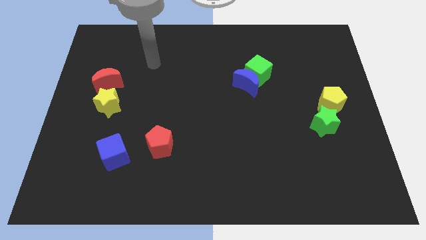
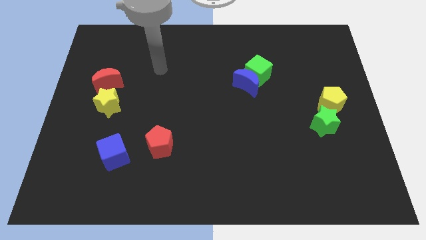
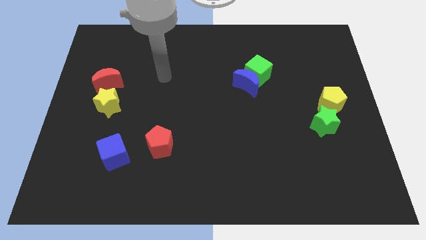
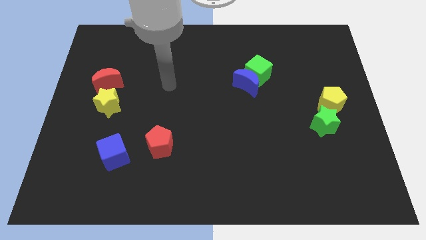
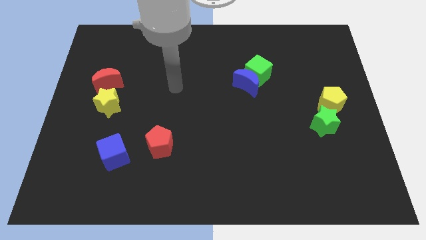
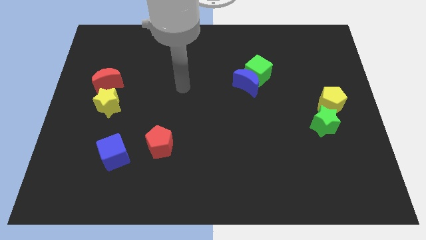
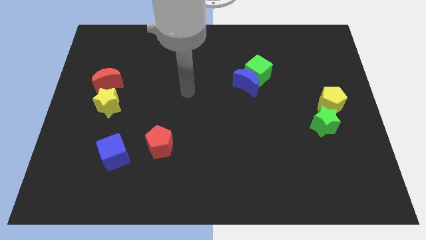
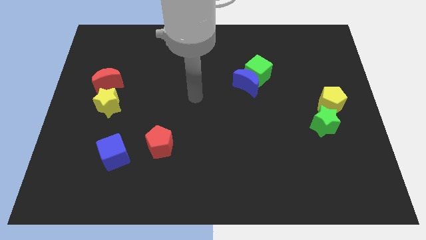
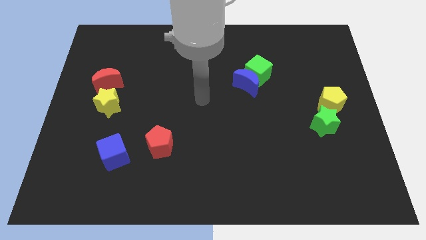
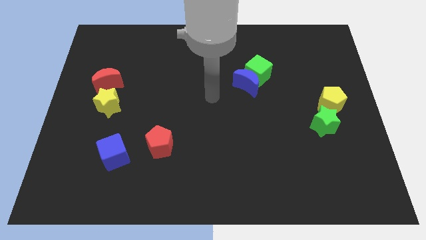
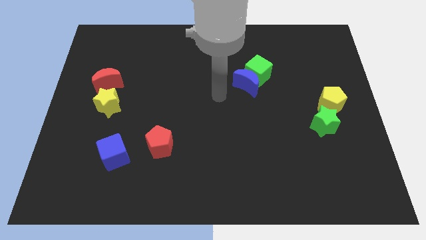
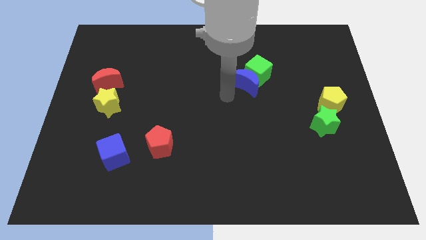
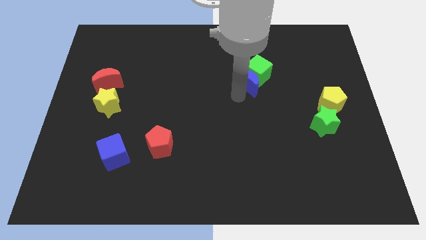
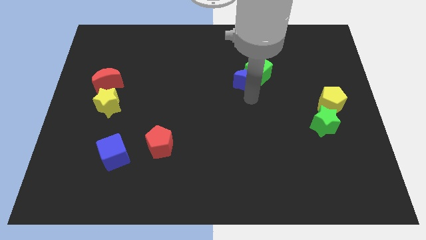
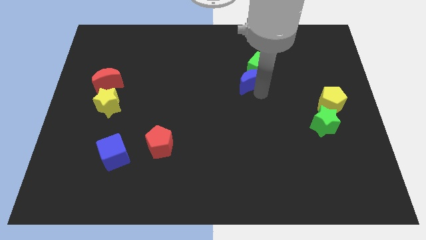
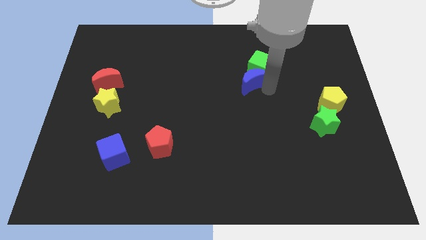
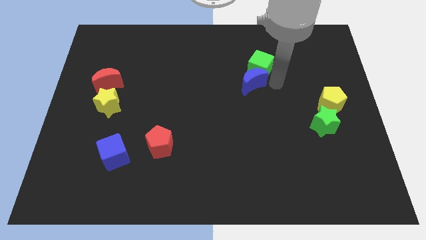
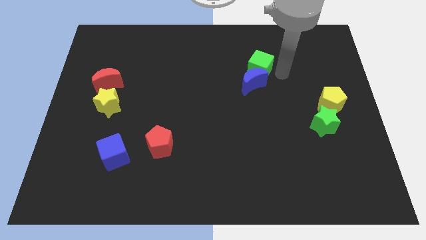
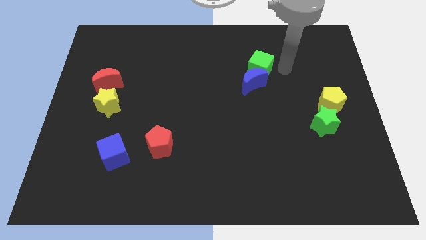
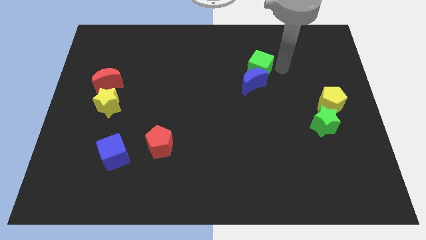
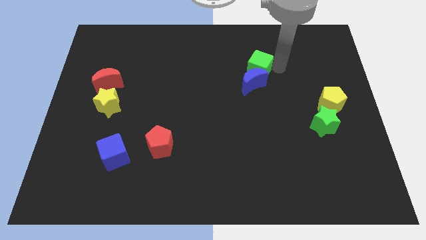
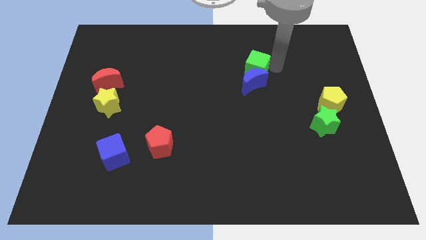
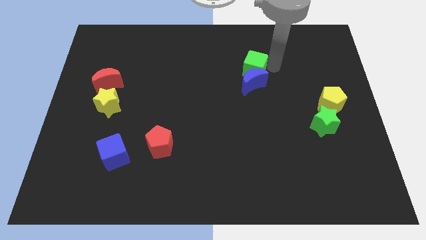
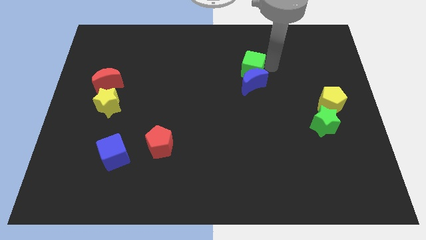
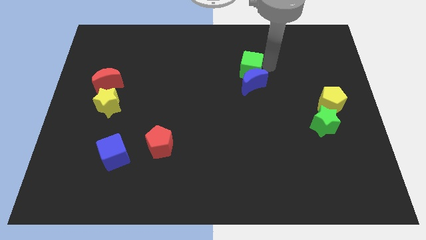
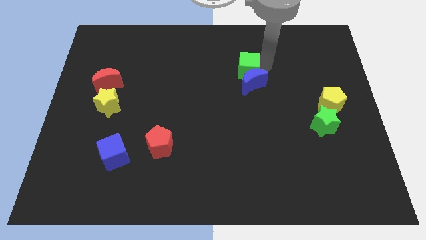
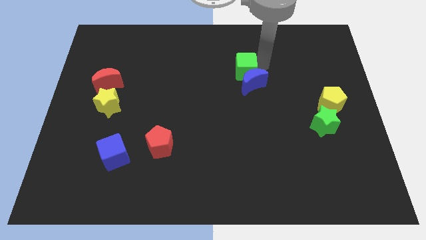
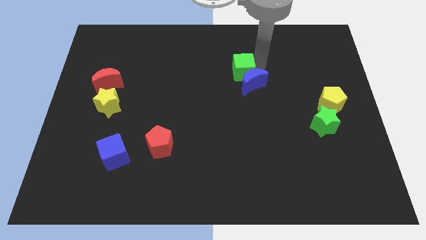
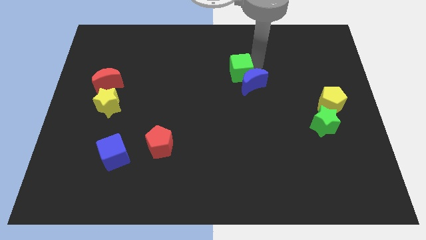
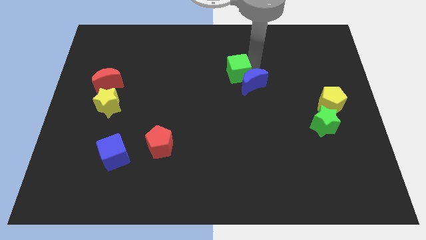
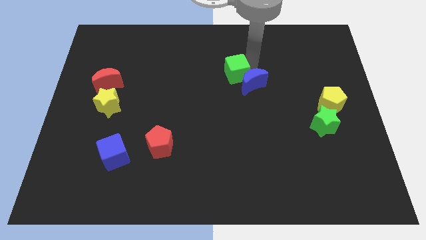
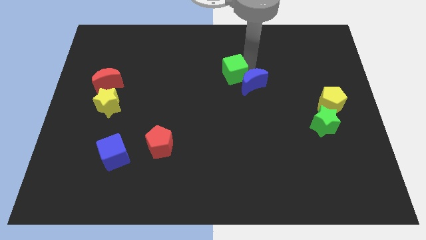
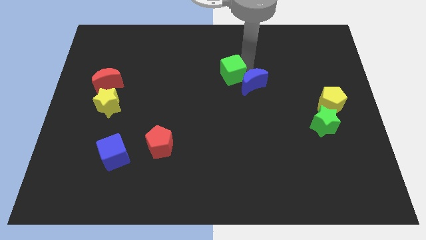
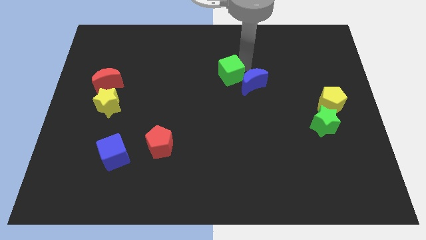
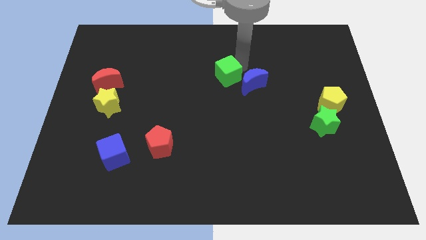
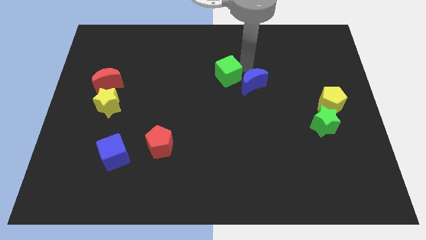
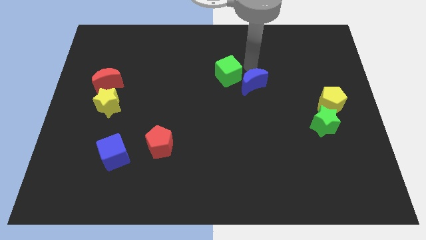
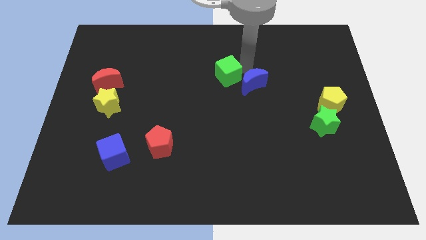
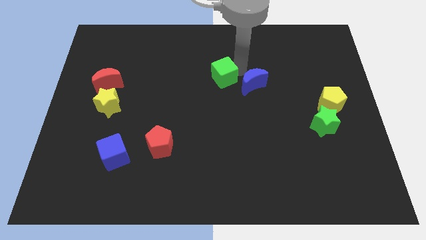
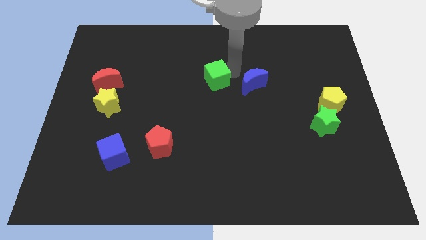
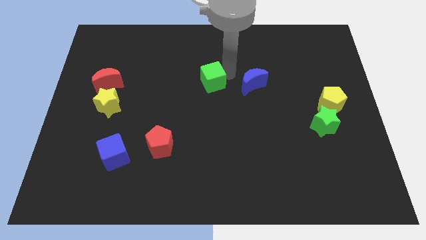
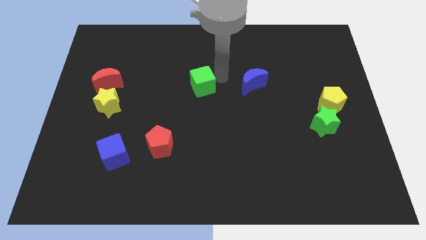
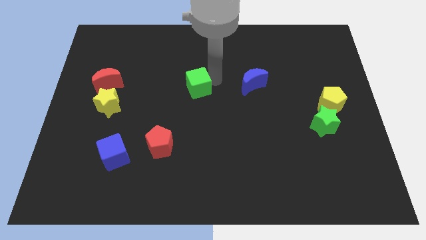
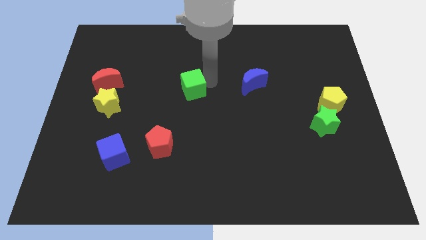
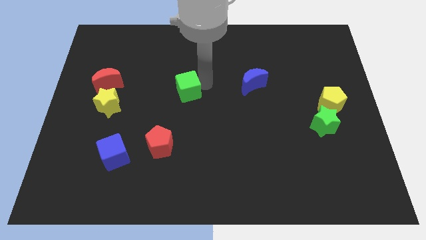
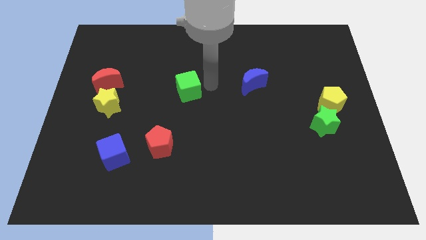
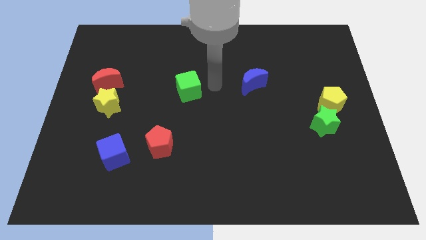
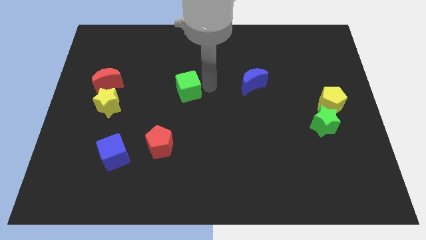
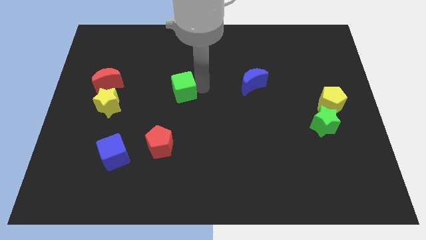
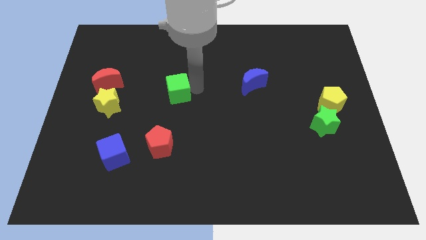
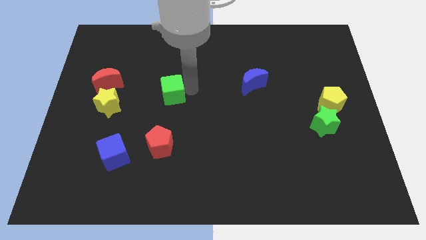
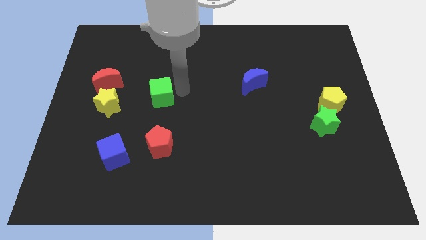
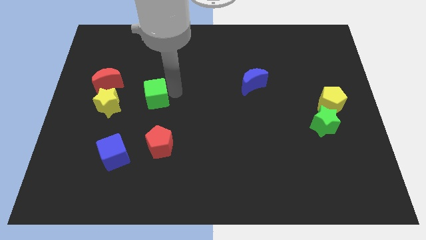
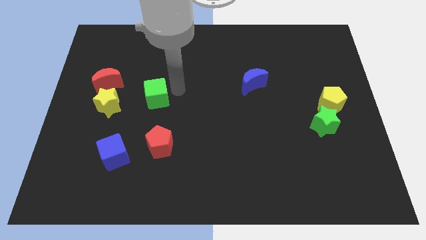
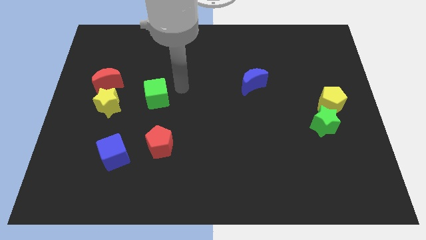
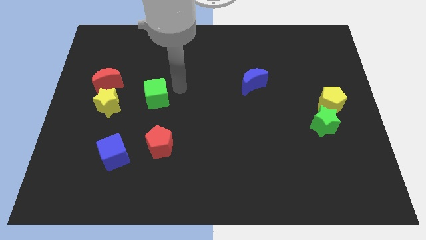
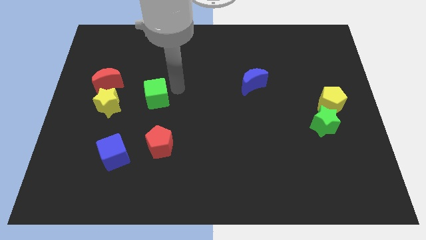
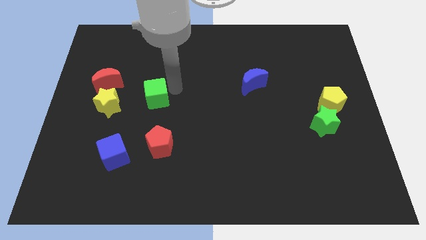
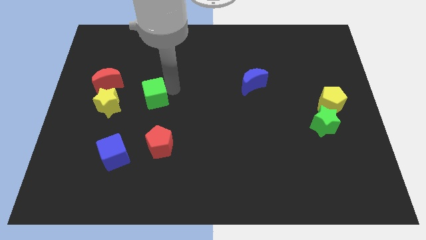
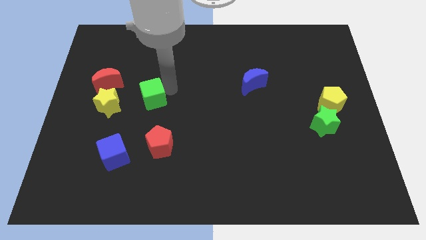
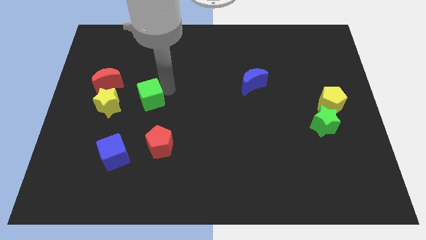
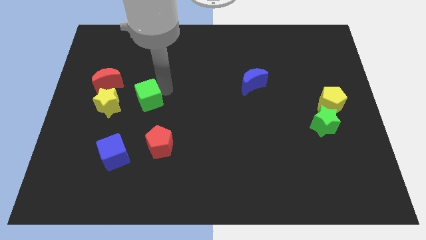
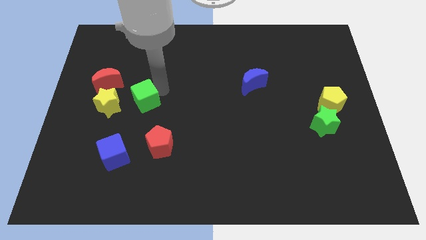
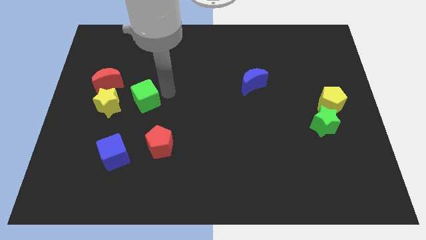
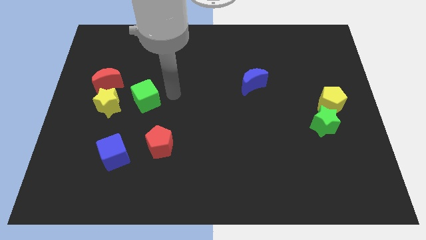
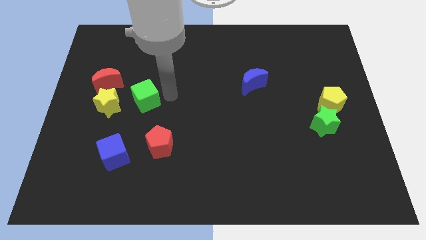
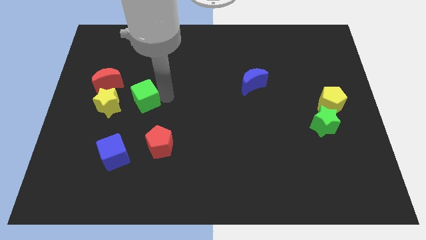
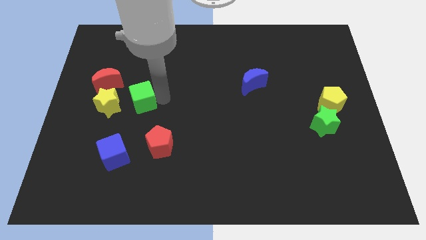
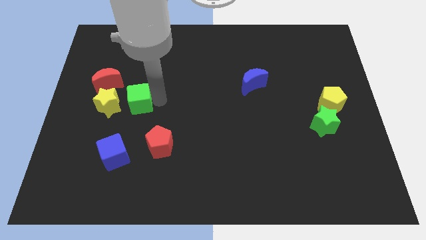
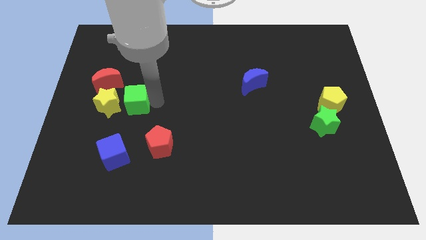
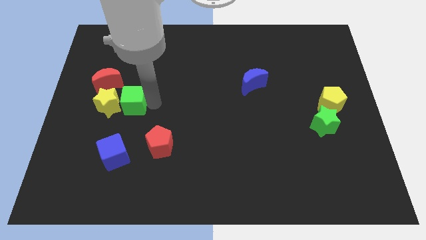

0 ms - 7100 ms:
put the green cube next to the yellow star
